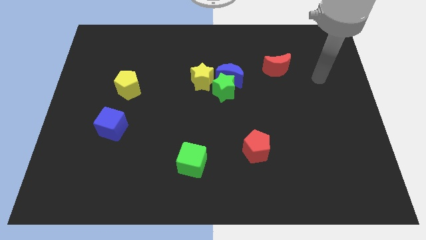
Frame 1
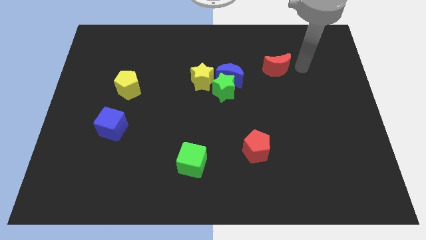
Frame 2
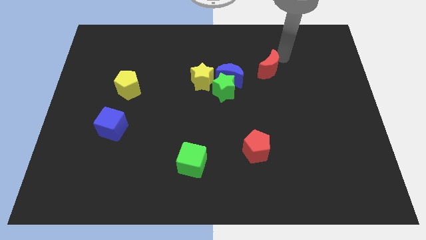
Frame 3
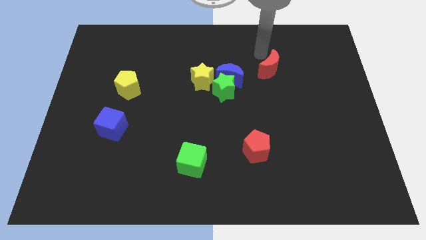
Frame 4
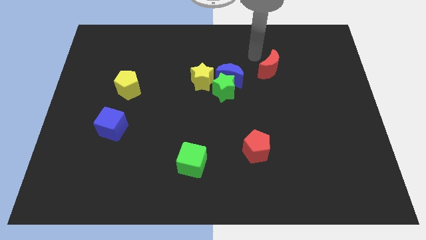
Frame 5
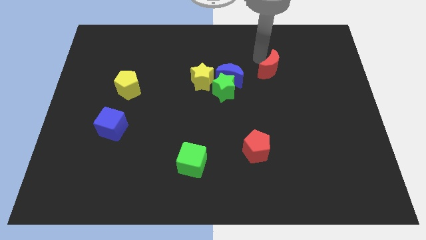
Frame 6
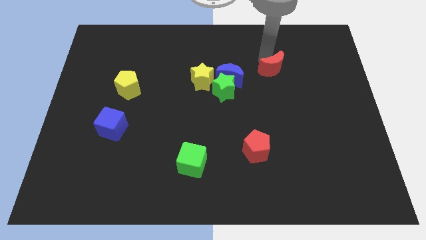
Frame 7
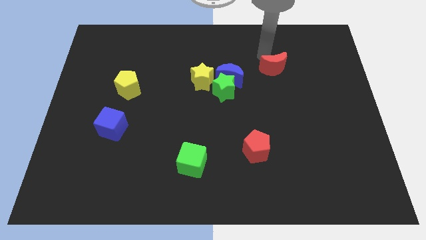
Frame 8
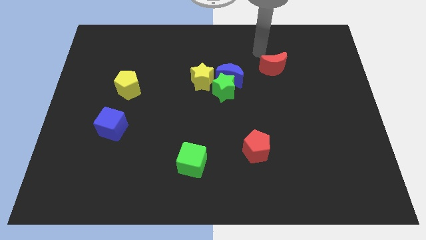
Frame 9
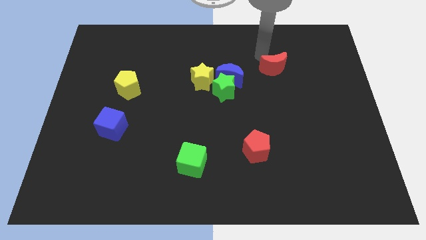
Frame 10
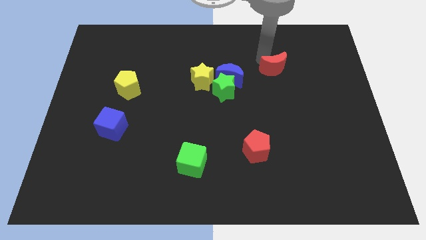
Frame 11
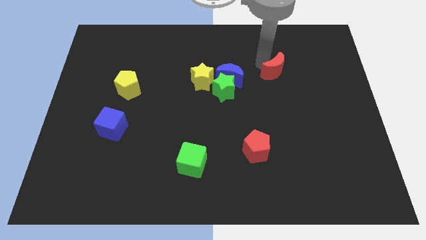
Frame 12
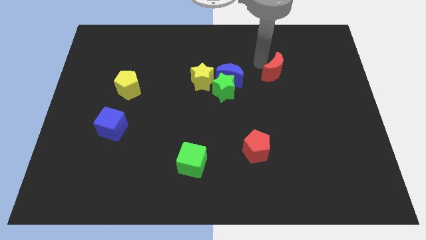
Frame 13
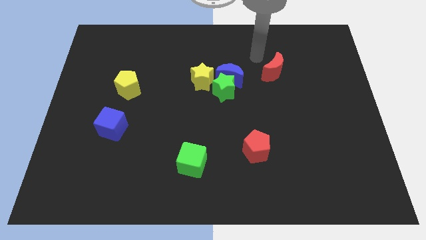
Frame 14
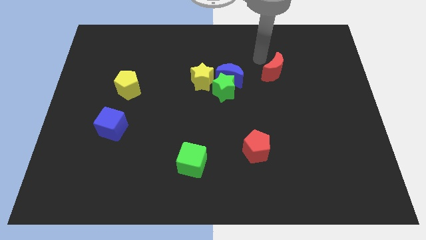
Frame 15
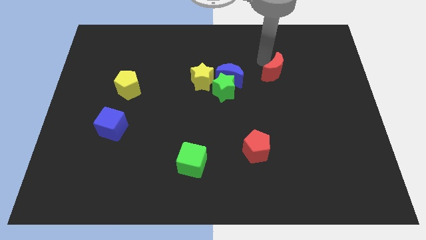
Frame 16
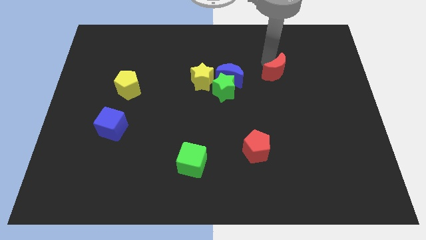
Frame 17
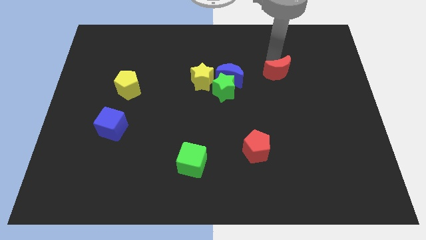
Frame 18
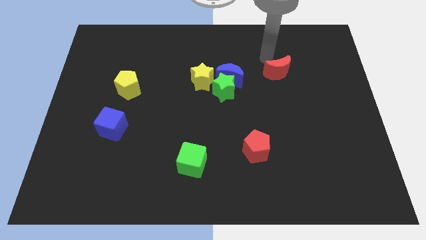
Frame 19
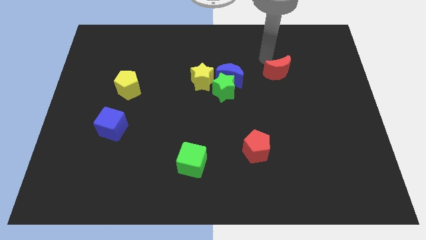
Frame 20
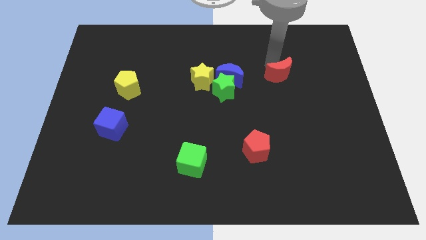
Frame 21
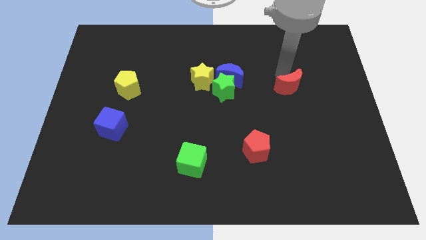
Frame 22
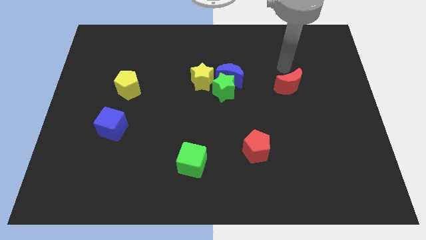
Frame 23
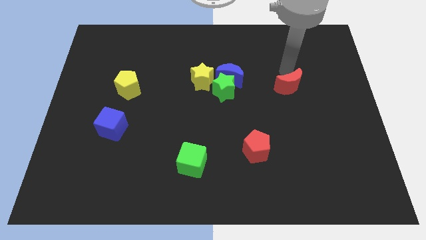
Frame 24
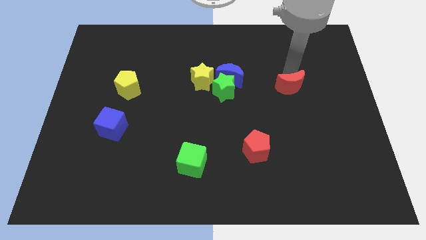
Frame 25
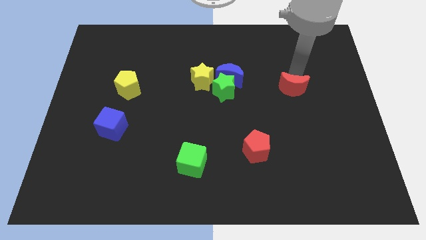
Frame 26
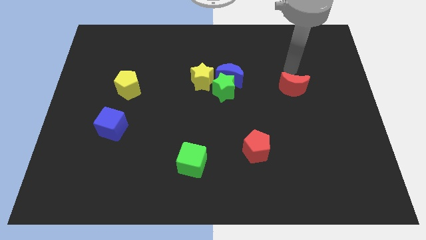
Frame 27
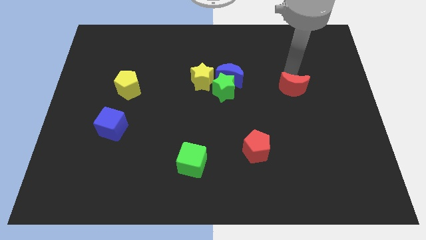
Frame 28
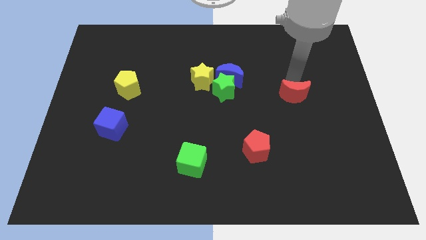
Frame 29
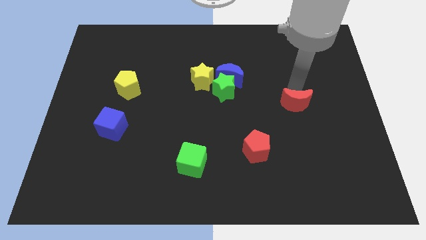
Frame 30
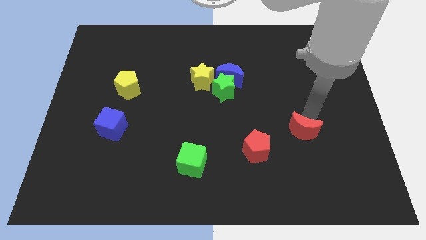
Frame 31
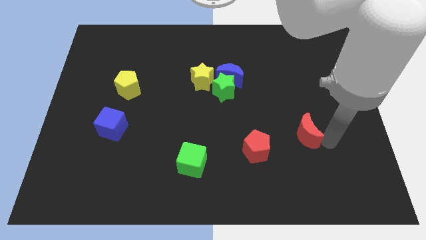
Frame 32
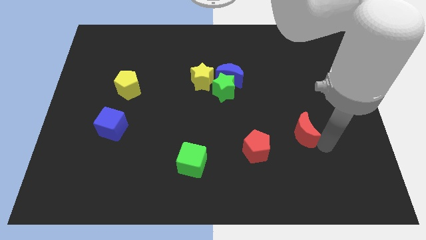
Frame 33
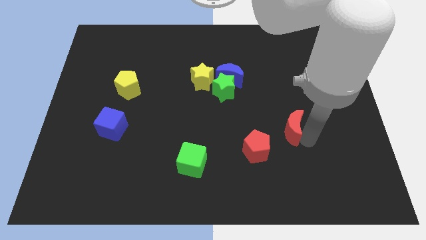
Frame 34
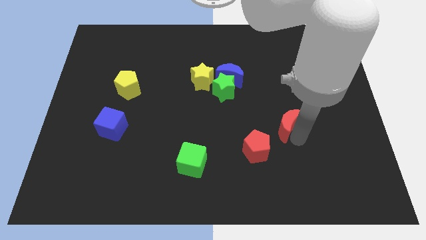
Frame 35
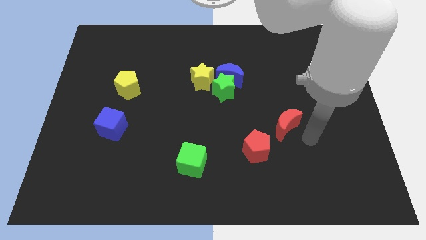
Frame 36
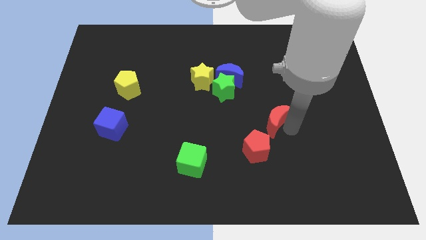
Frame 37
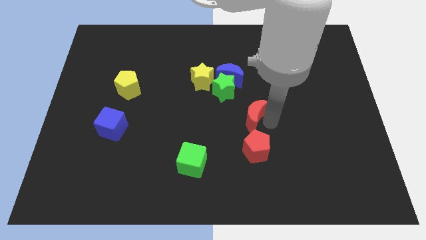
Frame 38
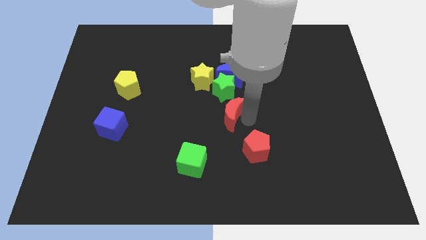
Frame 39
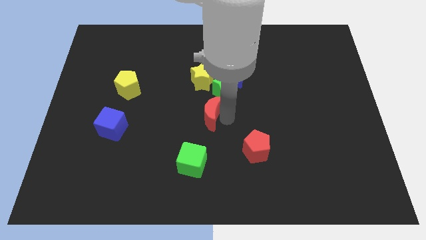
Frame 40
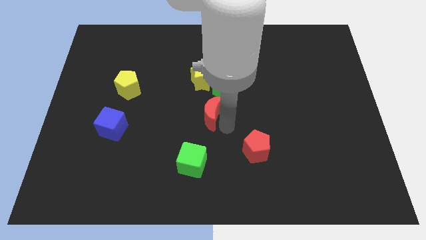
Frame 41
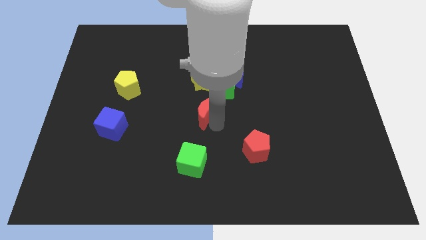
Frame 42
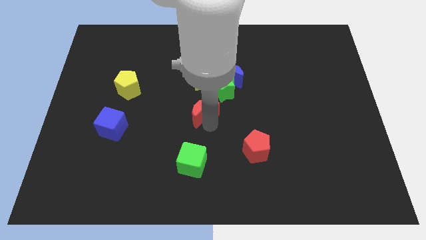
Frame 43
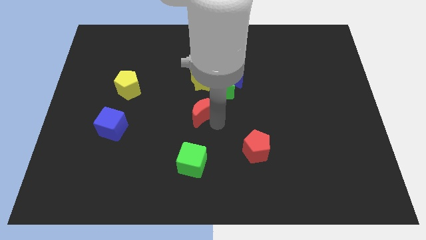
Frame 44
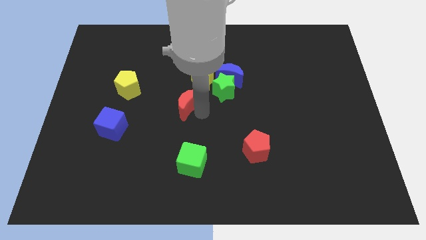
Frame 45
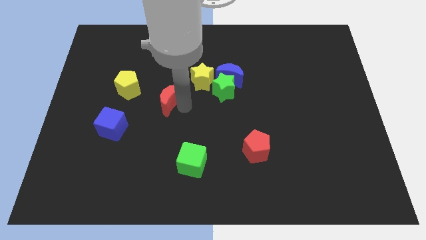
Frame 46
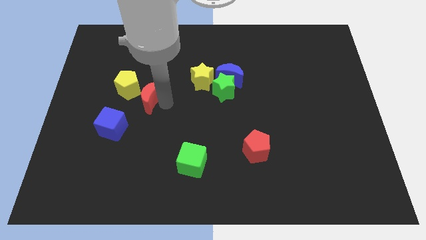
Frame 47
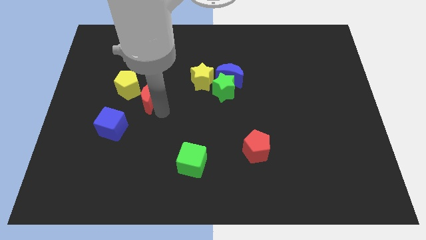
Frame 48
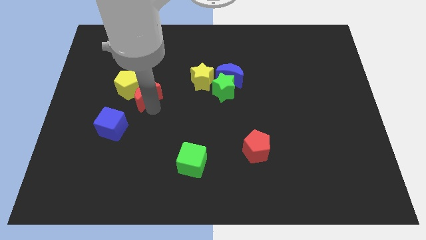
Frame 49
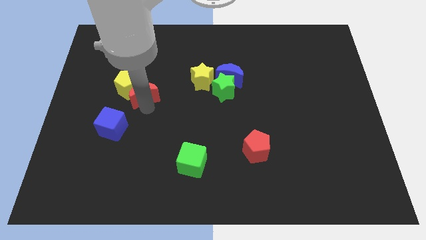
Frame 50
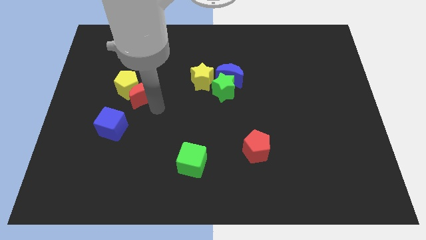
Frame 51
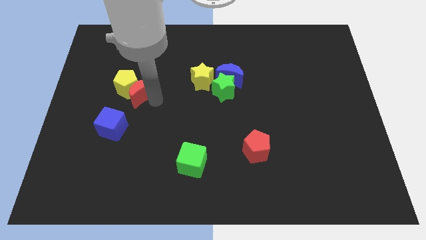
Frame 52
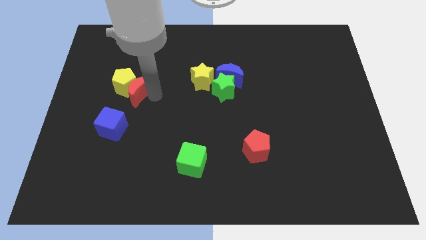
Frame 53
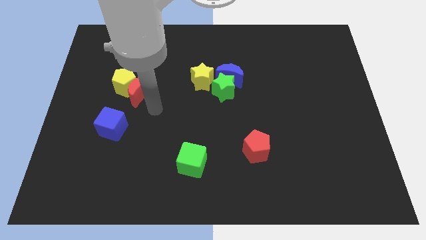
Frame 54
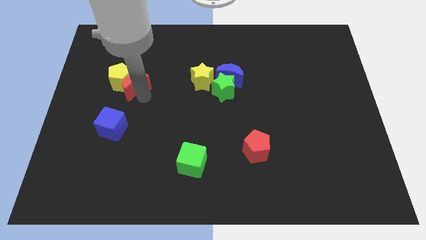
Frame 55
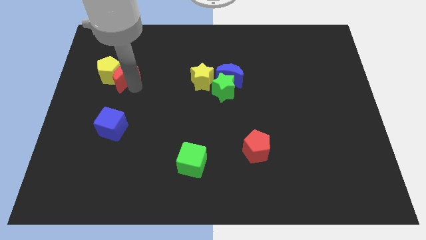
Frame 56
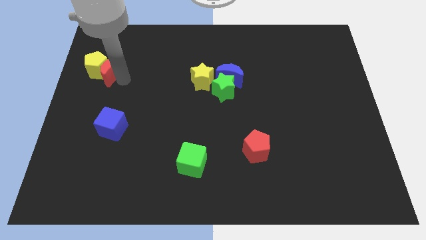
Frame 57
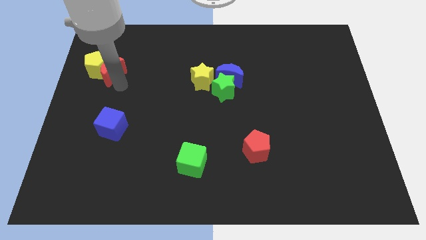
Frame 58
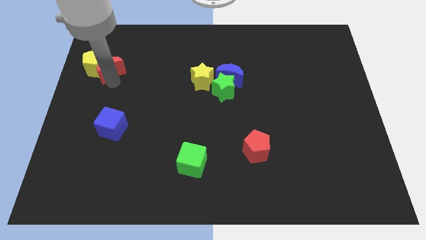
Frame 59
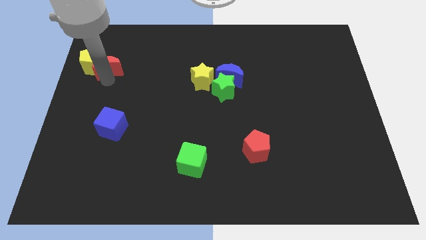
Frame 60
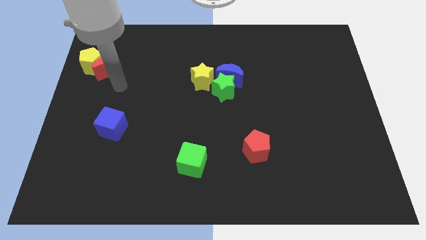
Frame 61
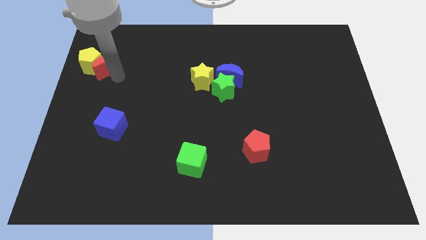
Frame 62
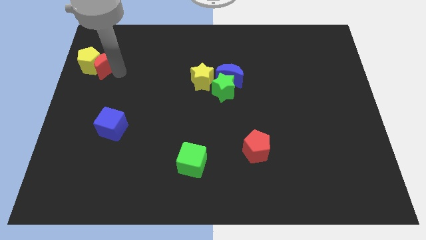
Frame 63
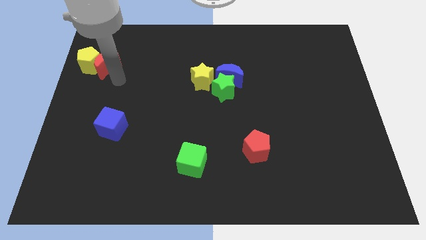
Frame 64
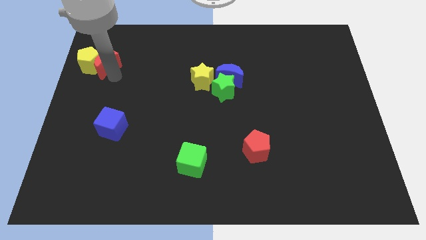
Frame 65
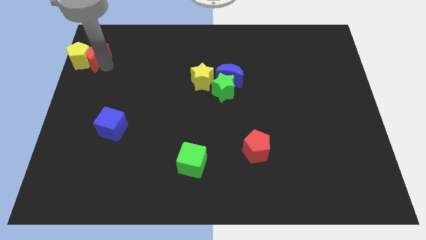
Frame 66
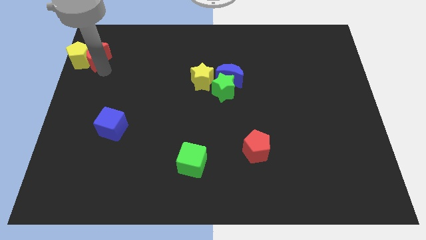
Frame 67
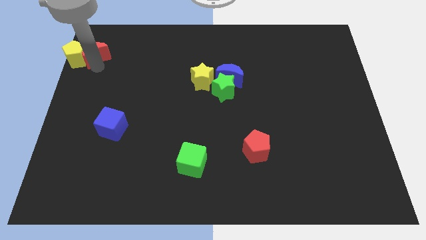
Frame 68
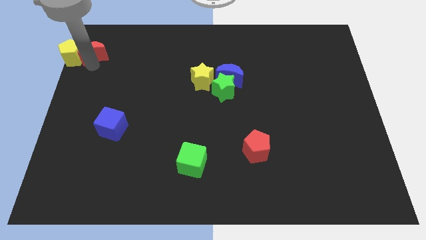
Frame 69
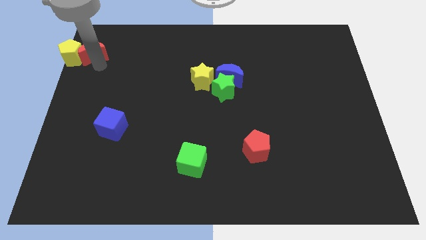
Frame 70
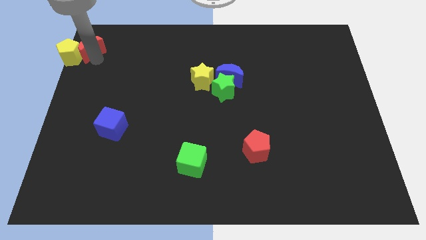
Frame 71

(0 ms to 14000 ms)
put the red moon to the top left corner
